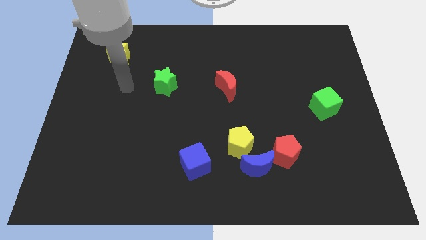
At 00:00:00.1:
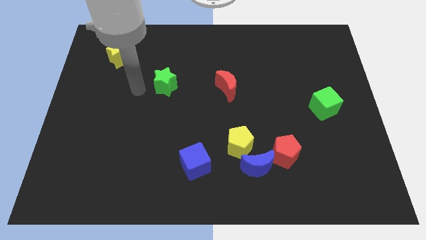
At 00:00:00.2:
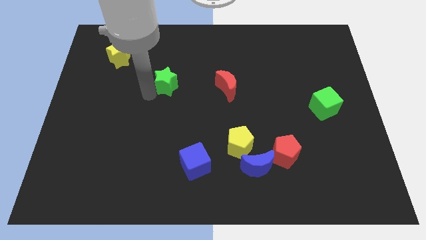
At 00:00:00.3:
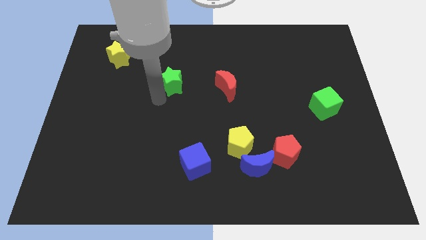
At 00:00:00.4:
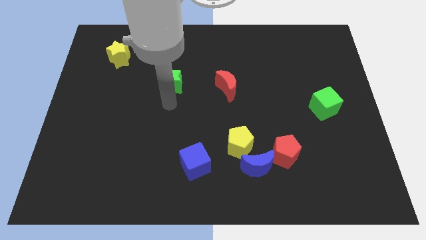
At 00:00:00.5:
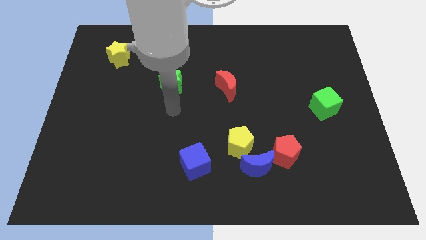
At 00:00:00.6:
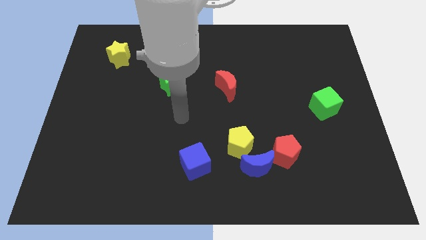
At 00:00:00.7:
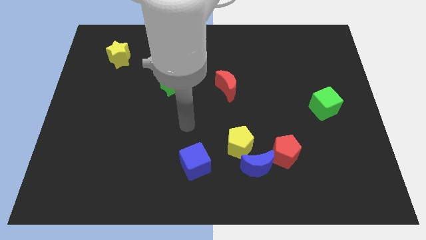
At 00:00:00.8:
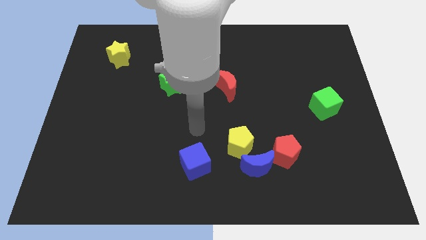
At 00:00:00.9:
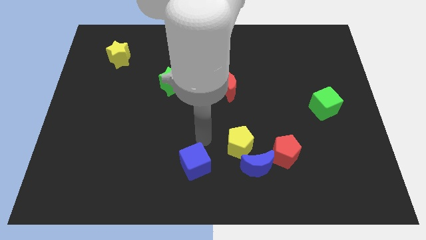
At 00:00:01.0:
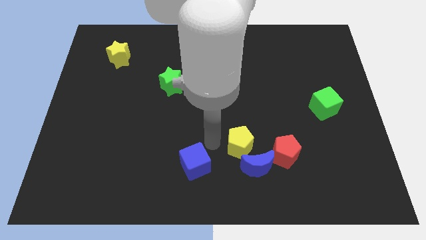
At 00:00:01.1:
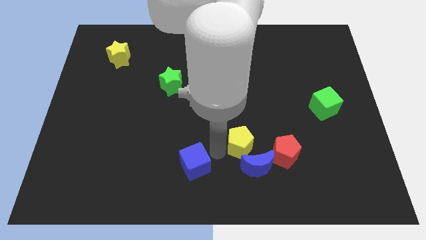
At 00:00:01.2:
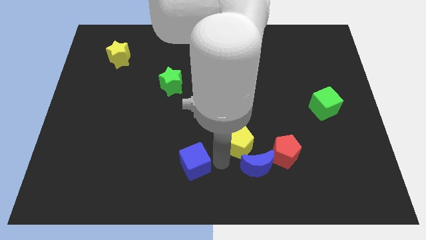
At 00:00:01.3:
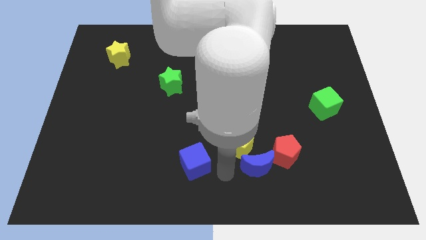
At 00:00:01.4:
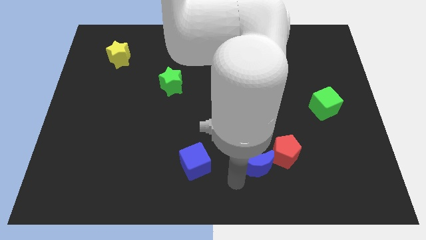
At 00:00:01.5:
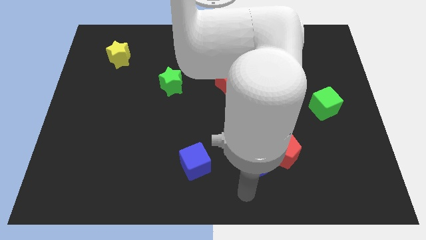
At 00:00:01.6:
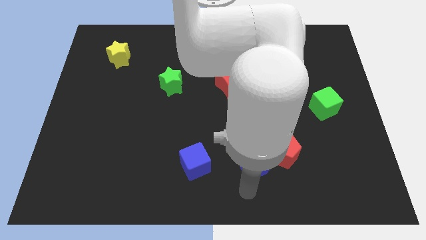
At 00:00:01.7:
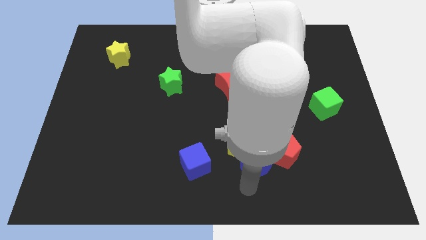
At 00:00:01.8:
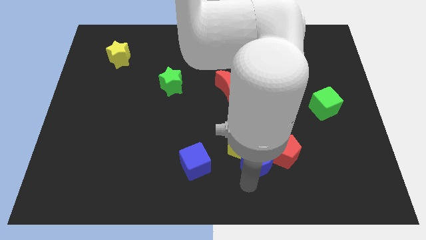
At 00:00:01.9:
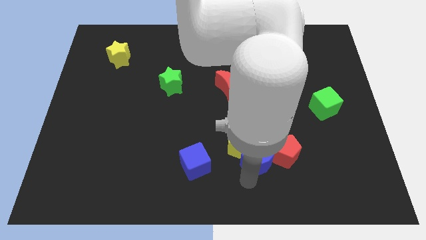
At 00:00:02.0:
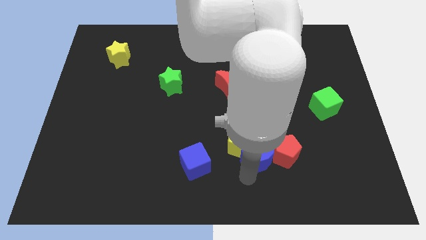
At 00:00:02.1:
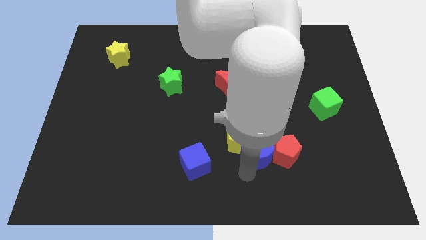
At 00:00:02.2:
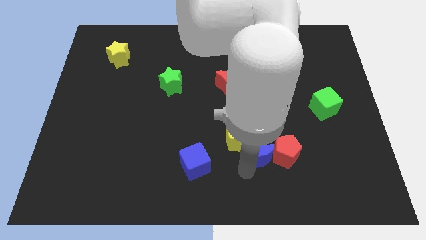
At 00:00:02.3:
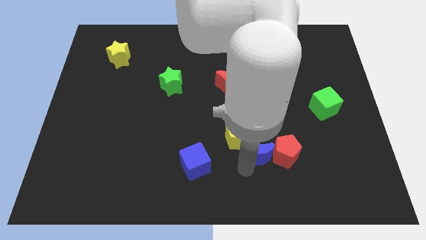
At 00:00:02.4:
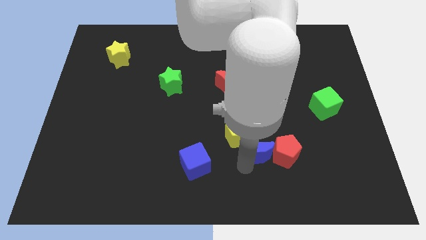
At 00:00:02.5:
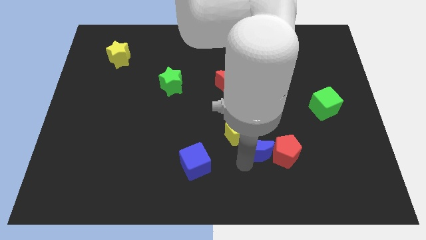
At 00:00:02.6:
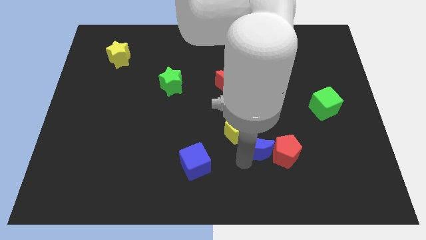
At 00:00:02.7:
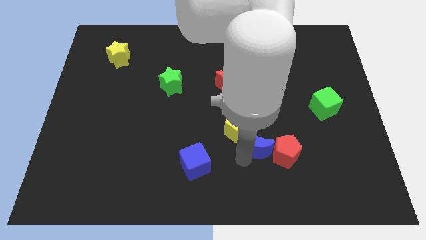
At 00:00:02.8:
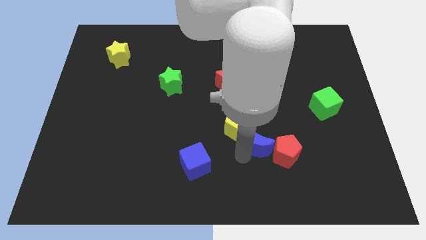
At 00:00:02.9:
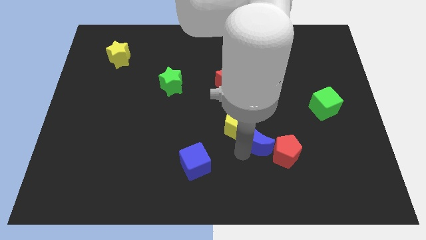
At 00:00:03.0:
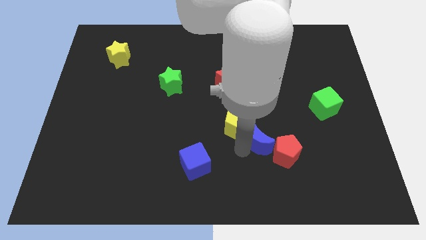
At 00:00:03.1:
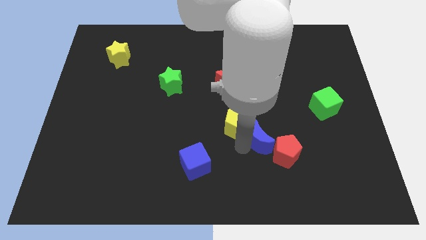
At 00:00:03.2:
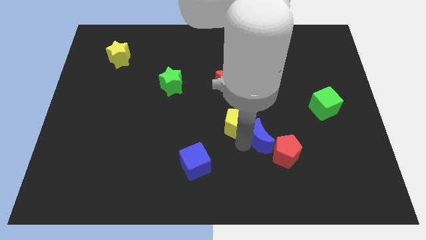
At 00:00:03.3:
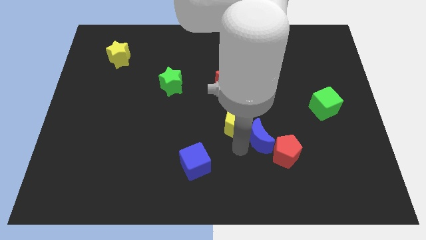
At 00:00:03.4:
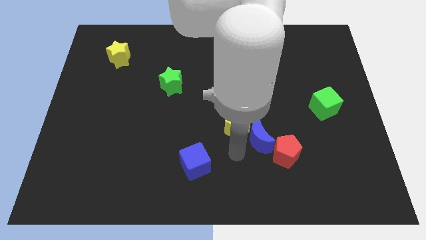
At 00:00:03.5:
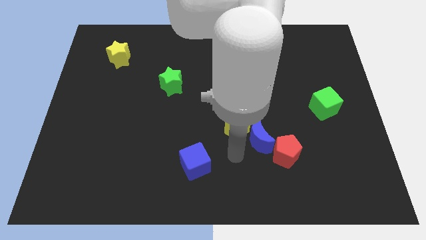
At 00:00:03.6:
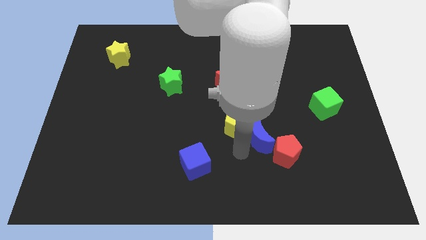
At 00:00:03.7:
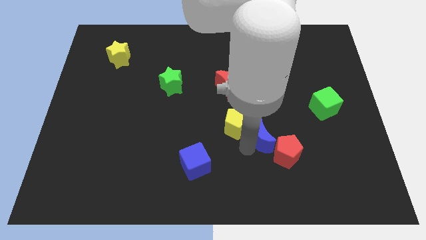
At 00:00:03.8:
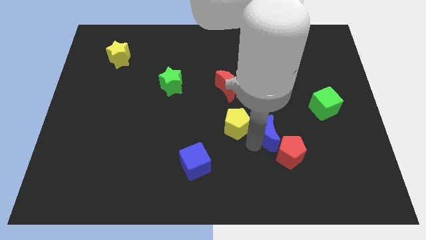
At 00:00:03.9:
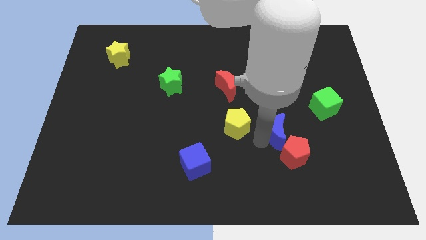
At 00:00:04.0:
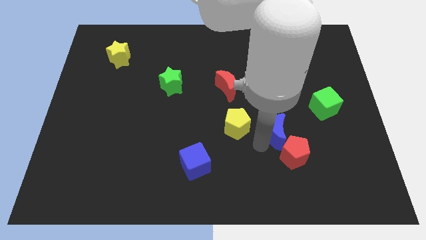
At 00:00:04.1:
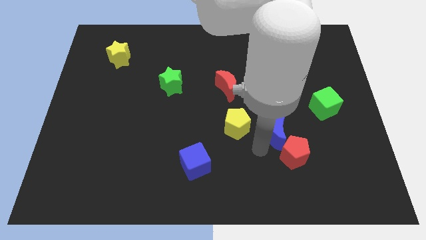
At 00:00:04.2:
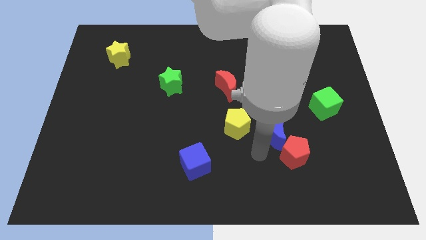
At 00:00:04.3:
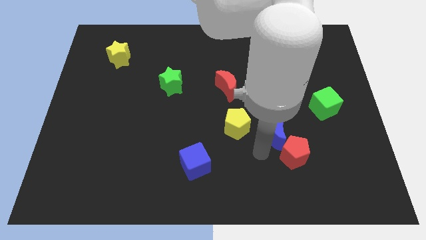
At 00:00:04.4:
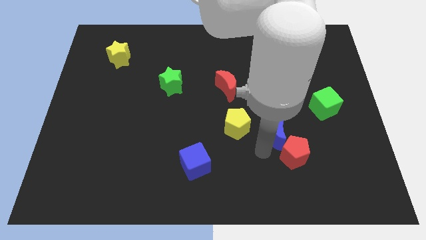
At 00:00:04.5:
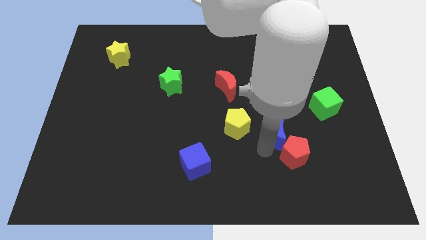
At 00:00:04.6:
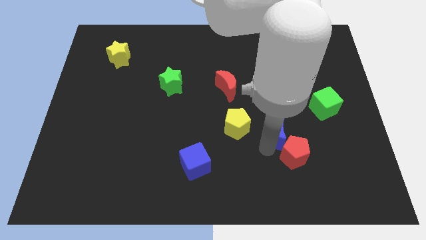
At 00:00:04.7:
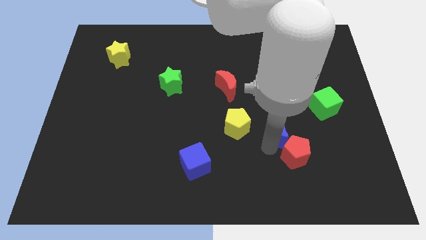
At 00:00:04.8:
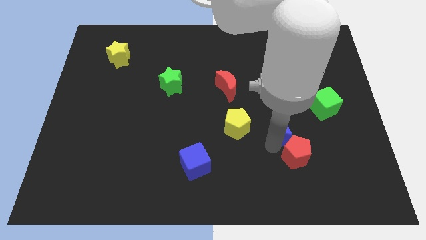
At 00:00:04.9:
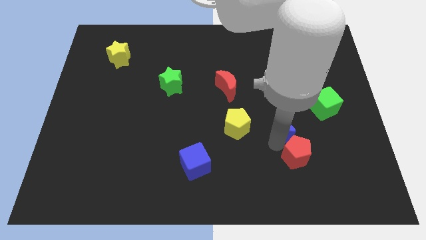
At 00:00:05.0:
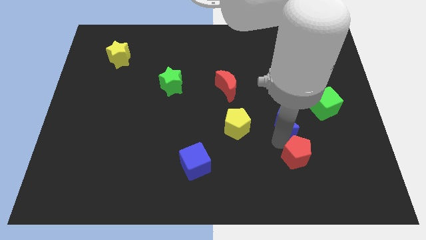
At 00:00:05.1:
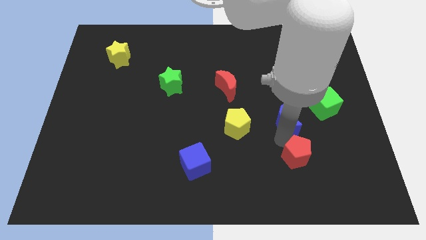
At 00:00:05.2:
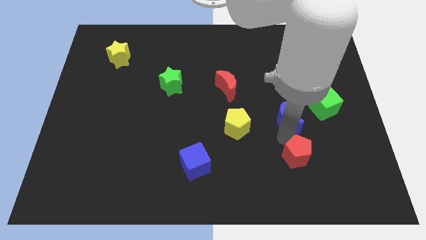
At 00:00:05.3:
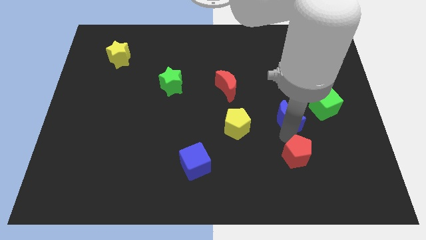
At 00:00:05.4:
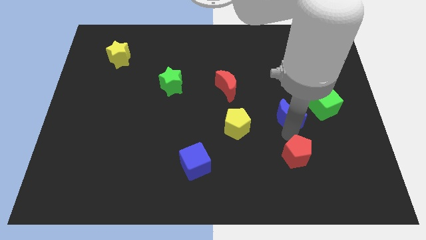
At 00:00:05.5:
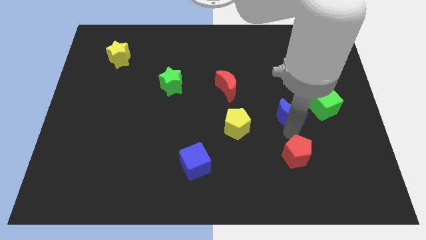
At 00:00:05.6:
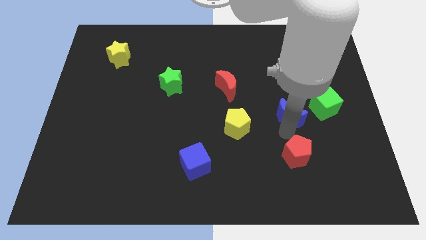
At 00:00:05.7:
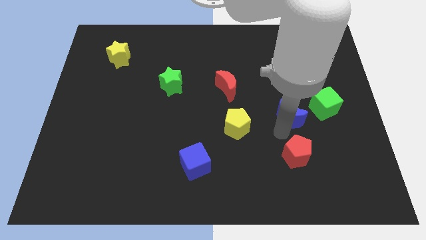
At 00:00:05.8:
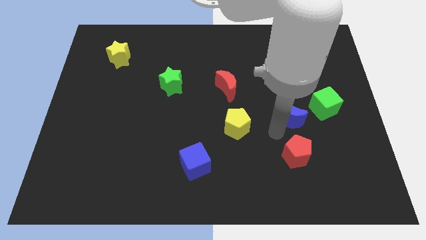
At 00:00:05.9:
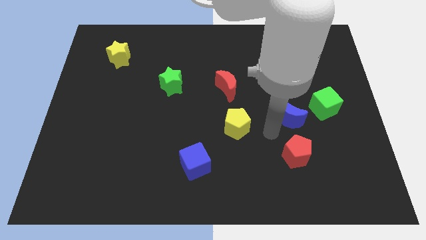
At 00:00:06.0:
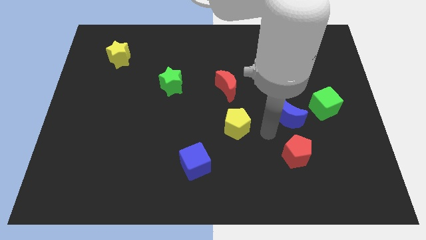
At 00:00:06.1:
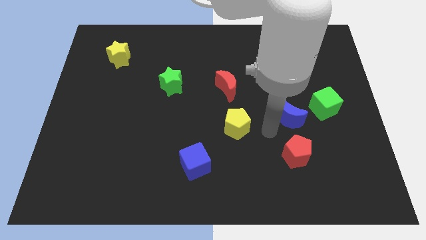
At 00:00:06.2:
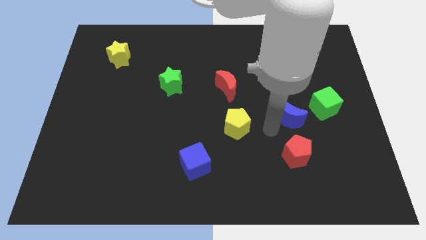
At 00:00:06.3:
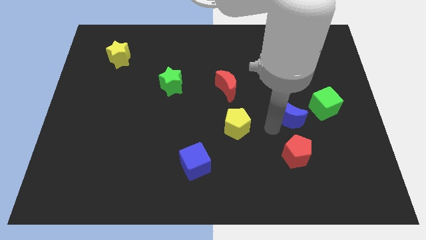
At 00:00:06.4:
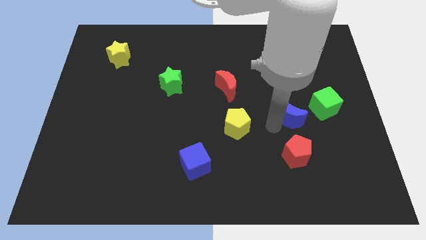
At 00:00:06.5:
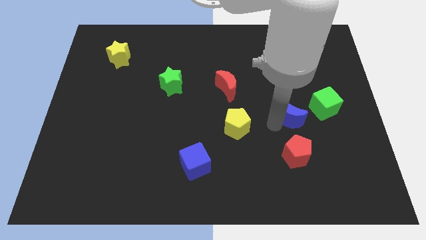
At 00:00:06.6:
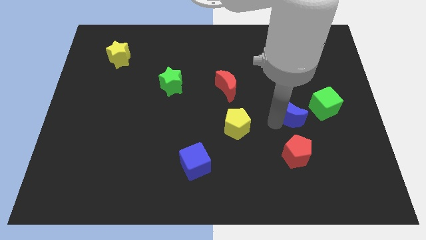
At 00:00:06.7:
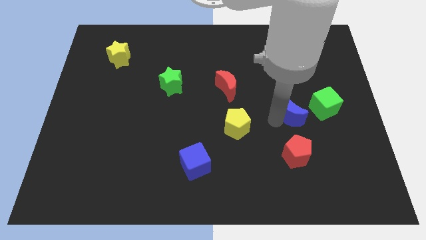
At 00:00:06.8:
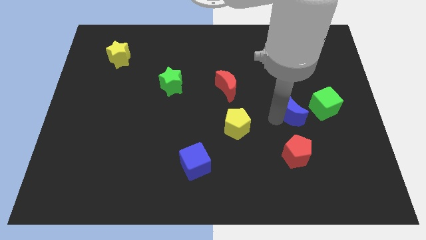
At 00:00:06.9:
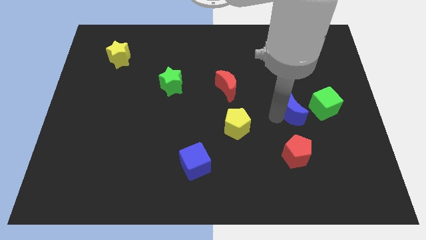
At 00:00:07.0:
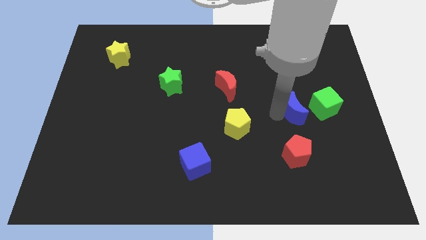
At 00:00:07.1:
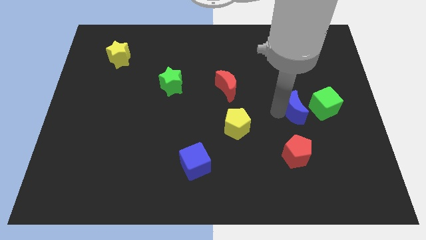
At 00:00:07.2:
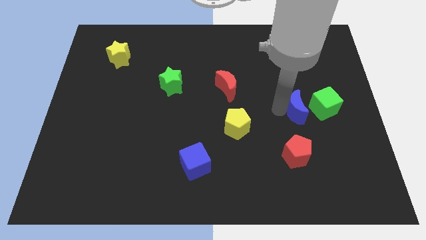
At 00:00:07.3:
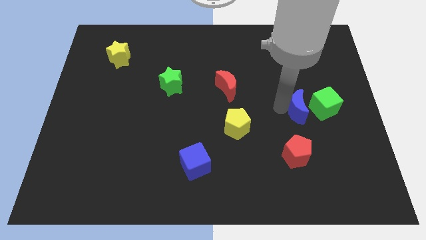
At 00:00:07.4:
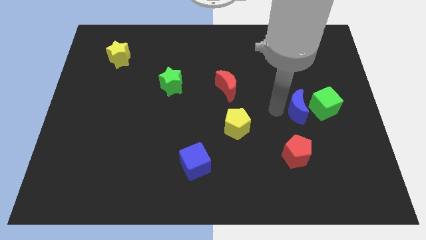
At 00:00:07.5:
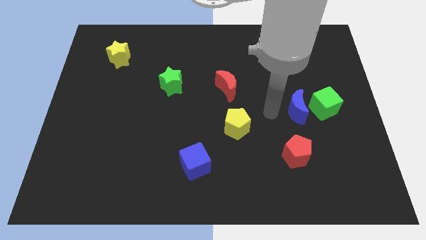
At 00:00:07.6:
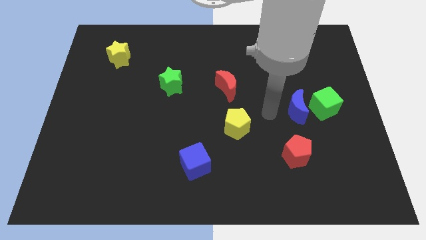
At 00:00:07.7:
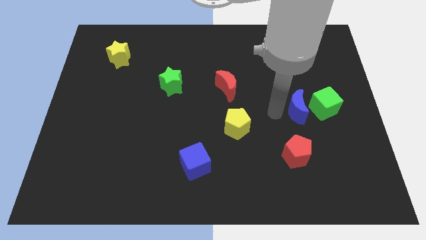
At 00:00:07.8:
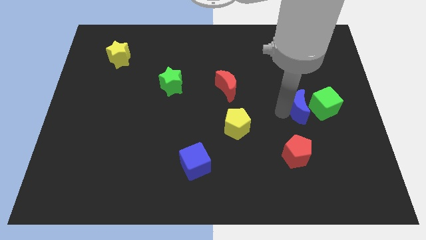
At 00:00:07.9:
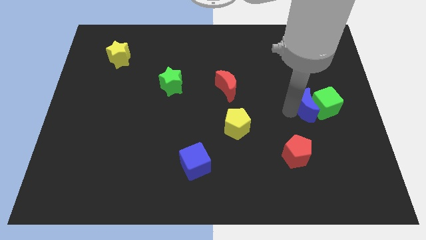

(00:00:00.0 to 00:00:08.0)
push the blue moon close to the green cube
